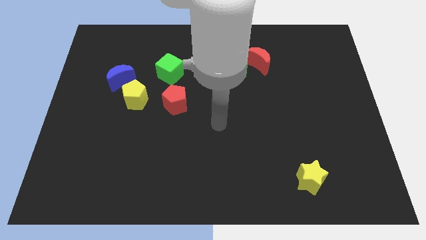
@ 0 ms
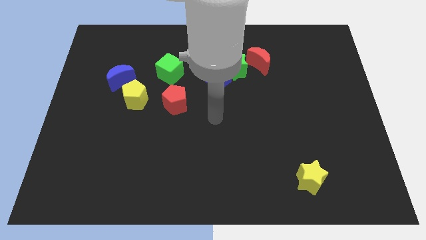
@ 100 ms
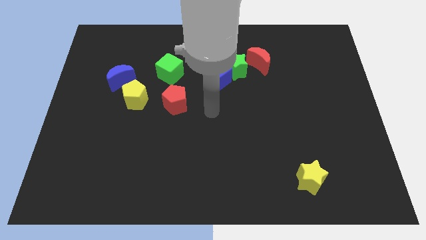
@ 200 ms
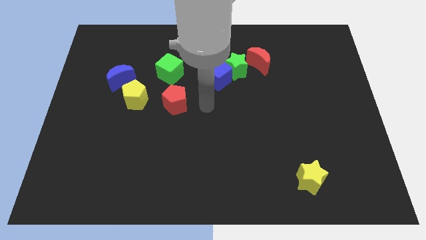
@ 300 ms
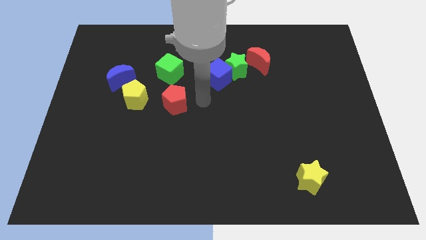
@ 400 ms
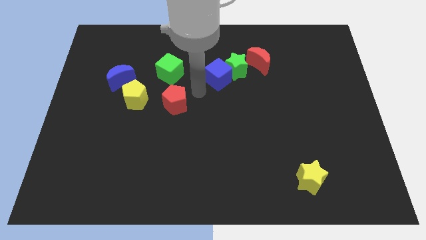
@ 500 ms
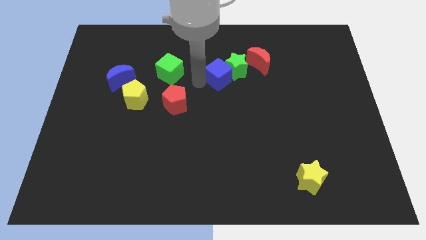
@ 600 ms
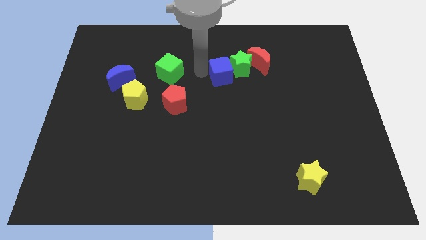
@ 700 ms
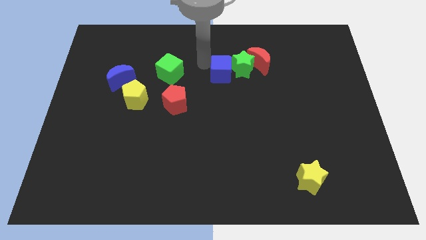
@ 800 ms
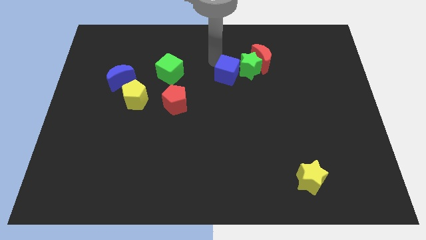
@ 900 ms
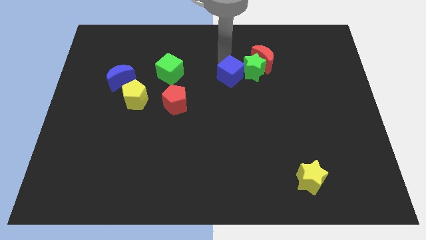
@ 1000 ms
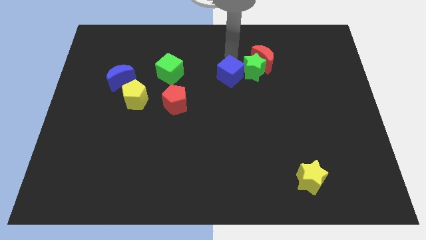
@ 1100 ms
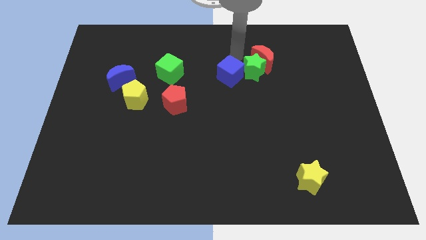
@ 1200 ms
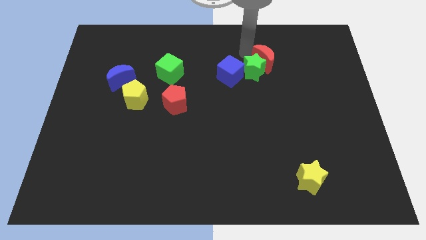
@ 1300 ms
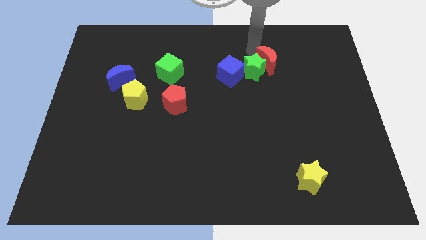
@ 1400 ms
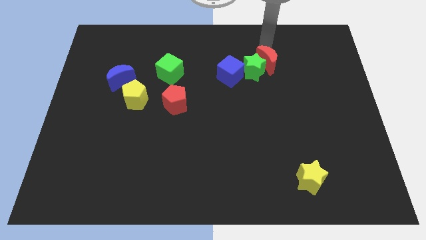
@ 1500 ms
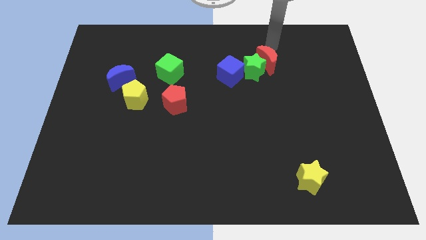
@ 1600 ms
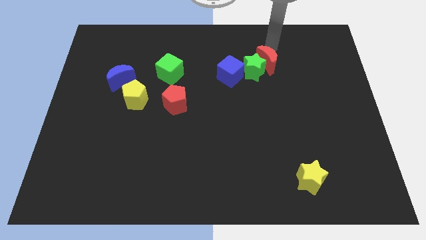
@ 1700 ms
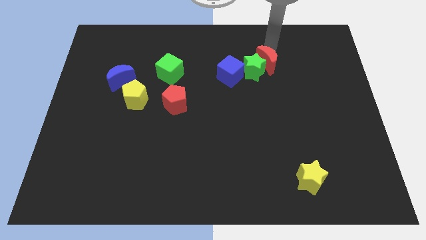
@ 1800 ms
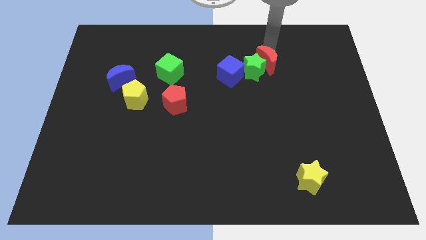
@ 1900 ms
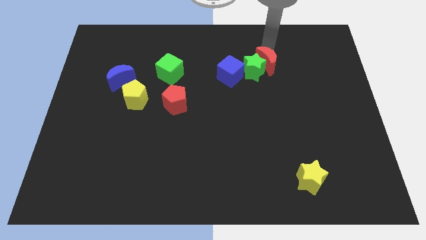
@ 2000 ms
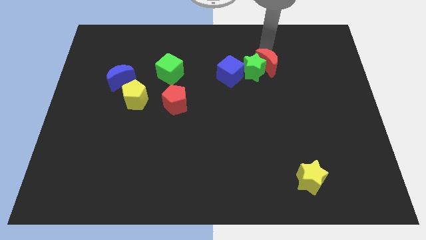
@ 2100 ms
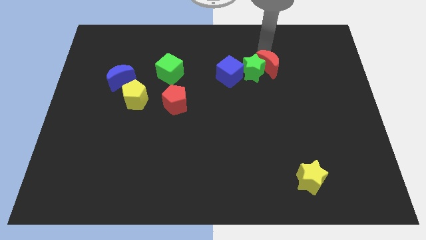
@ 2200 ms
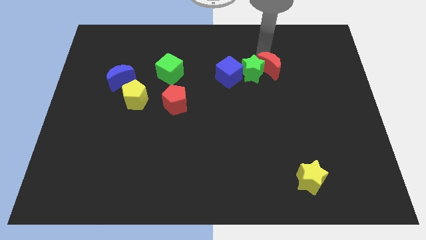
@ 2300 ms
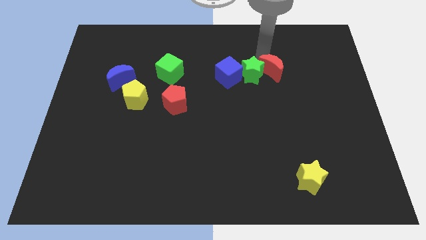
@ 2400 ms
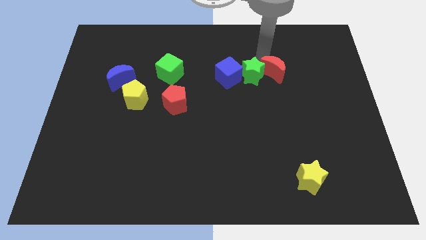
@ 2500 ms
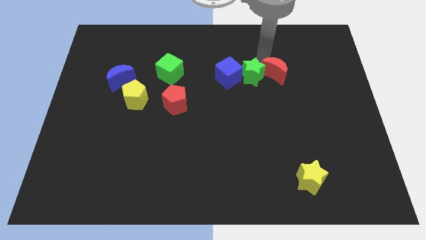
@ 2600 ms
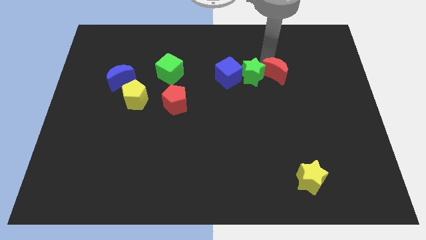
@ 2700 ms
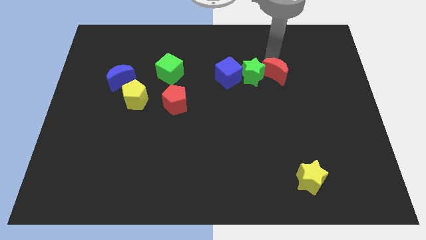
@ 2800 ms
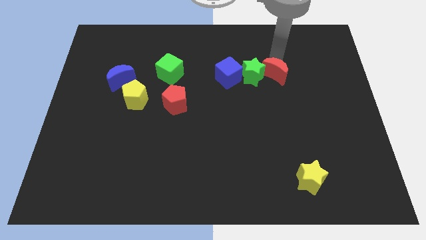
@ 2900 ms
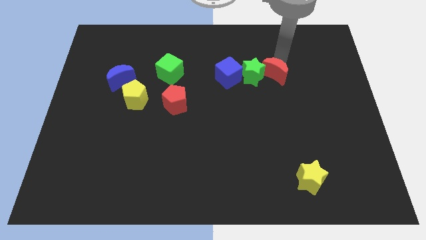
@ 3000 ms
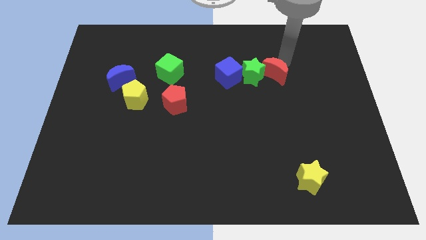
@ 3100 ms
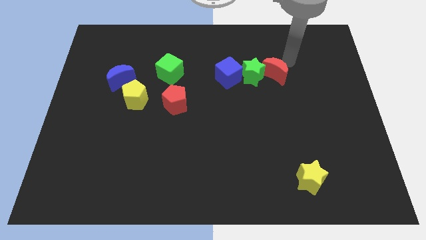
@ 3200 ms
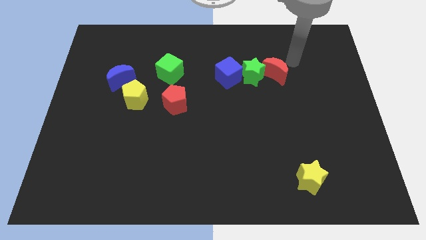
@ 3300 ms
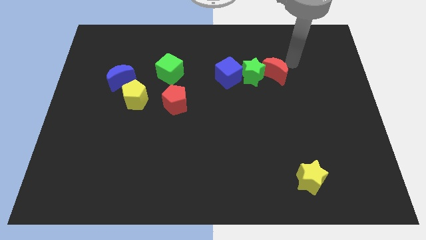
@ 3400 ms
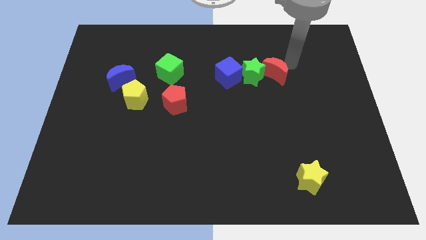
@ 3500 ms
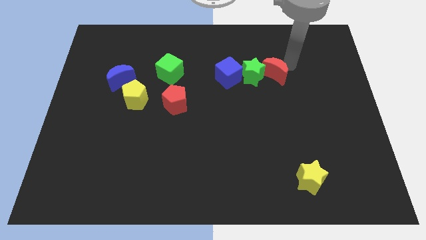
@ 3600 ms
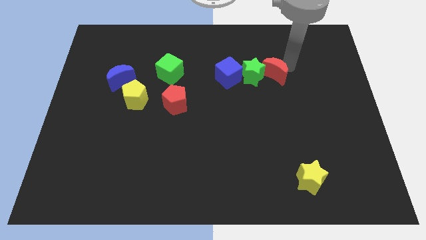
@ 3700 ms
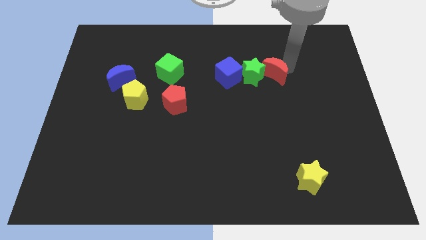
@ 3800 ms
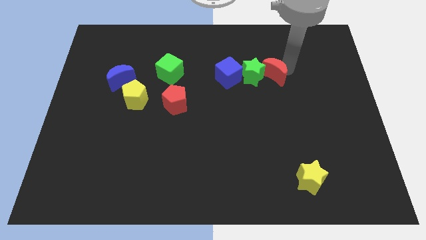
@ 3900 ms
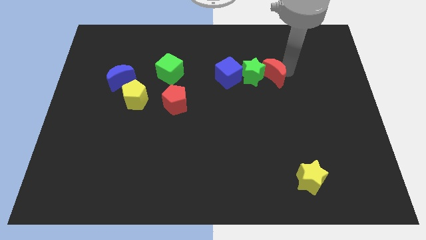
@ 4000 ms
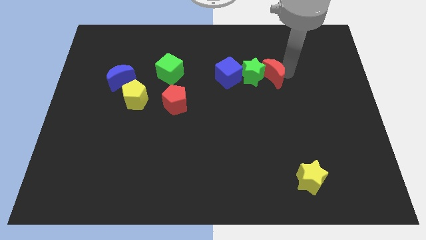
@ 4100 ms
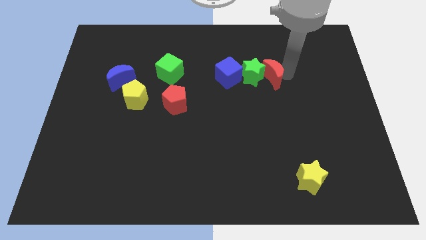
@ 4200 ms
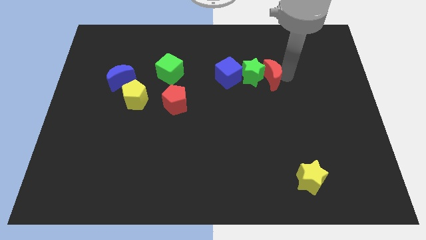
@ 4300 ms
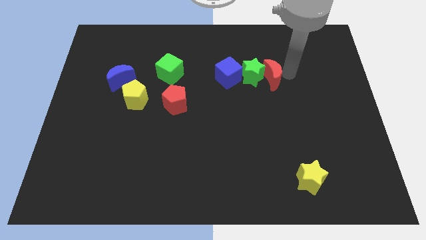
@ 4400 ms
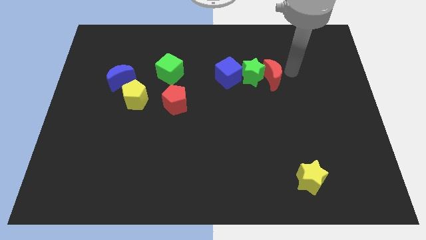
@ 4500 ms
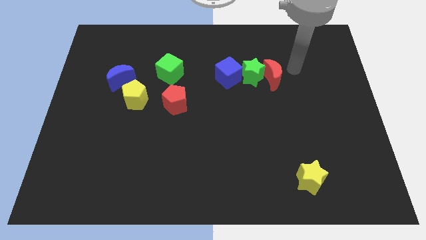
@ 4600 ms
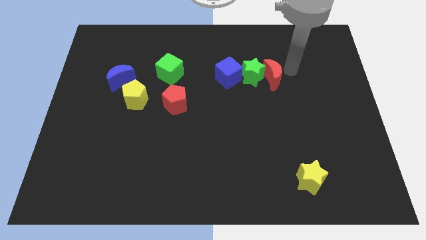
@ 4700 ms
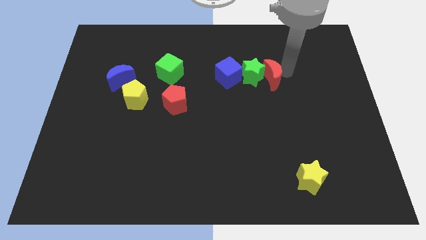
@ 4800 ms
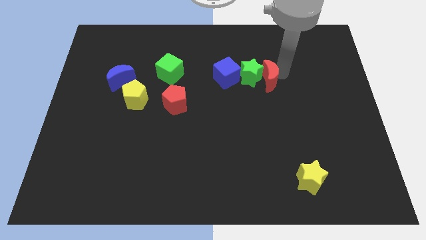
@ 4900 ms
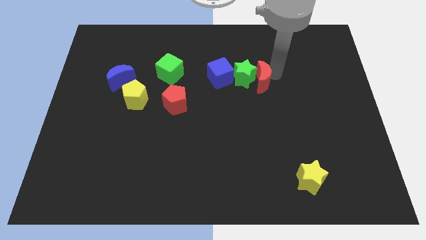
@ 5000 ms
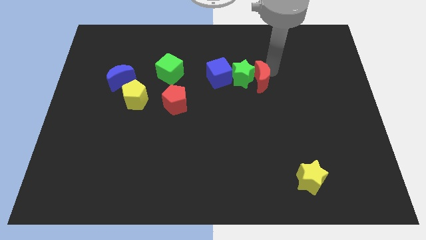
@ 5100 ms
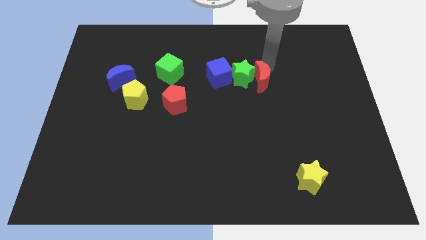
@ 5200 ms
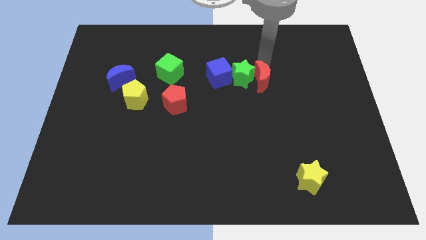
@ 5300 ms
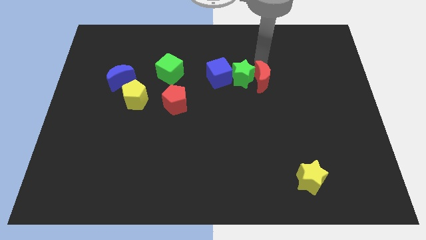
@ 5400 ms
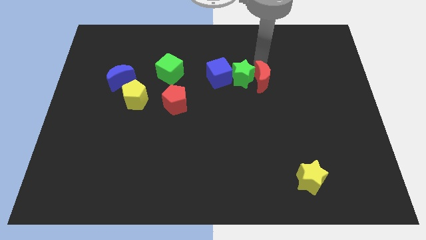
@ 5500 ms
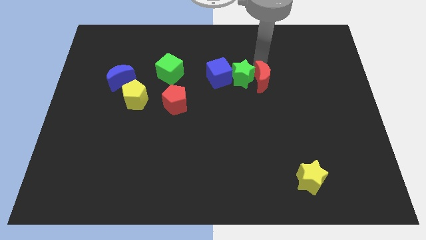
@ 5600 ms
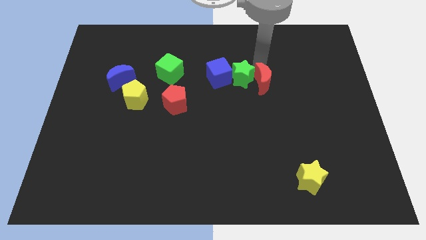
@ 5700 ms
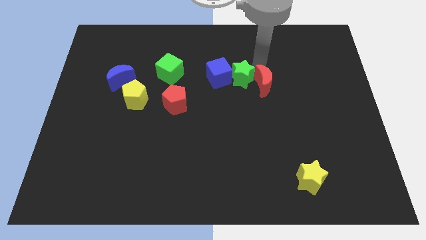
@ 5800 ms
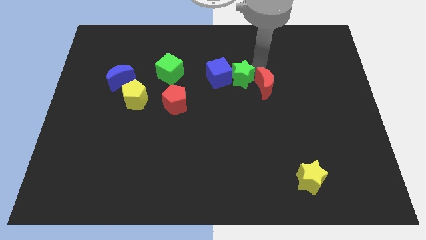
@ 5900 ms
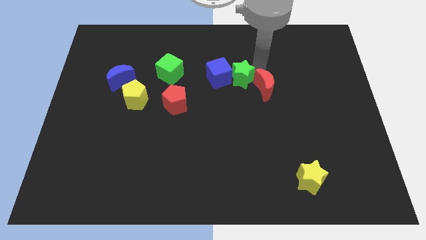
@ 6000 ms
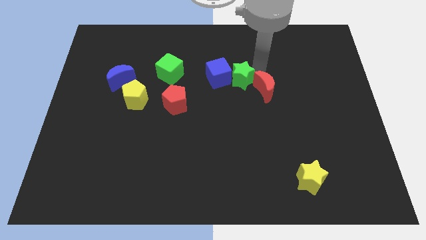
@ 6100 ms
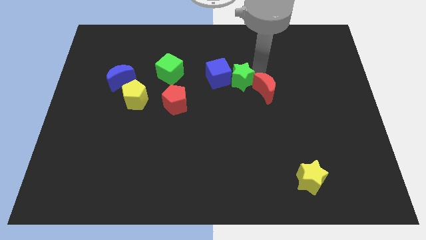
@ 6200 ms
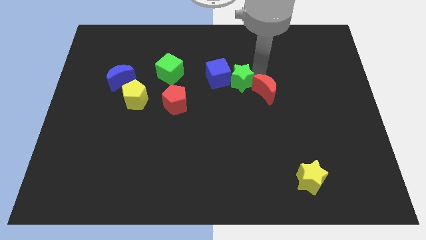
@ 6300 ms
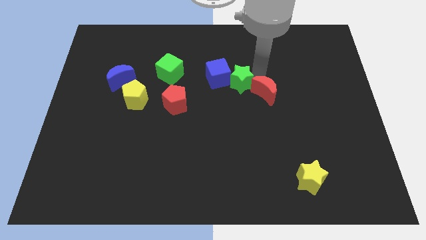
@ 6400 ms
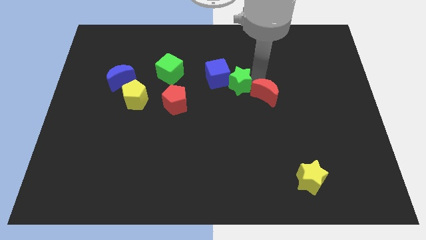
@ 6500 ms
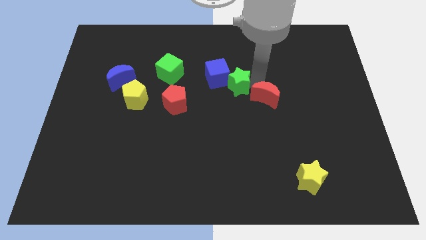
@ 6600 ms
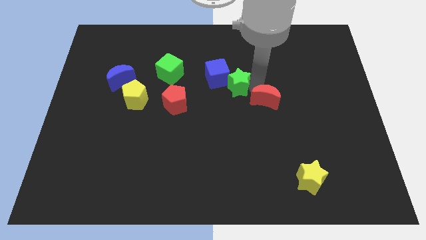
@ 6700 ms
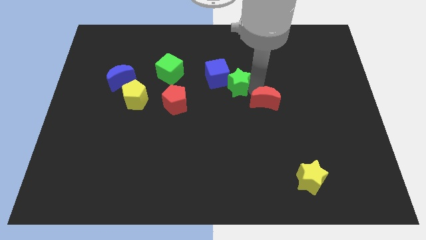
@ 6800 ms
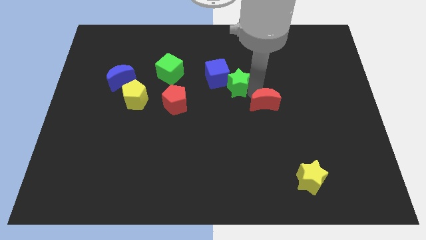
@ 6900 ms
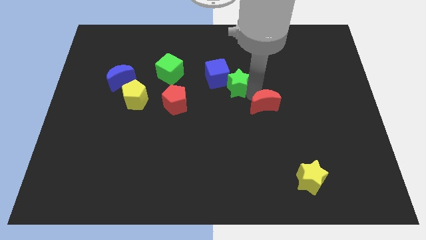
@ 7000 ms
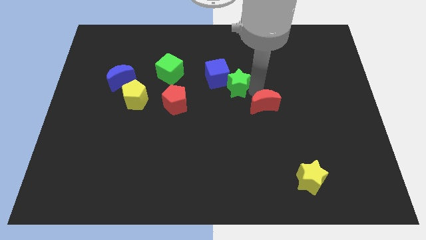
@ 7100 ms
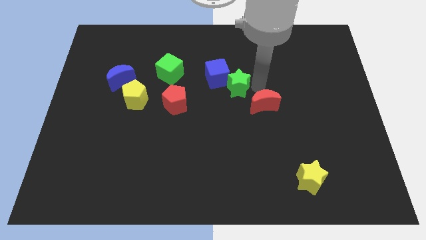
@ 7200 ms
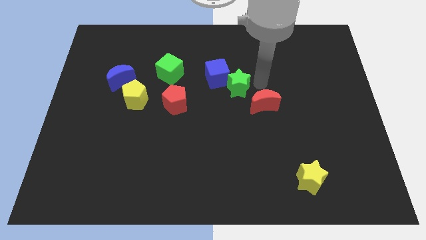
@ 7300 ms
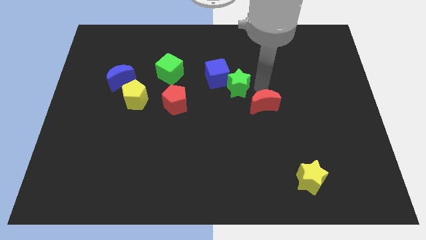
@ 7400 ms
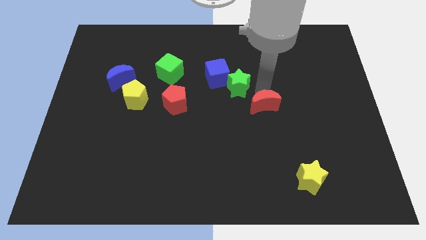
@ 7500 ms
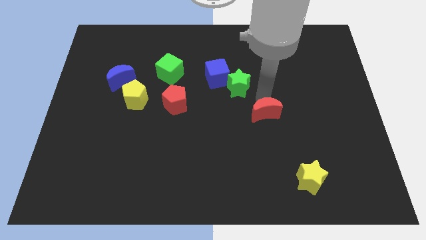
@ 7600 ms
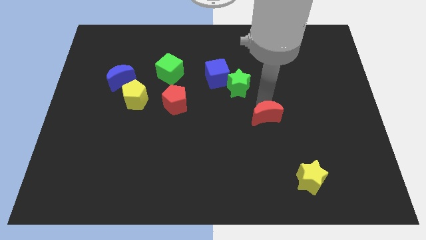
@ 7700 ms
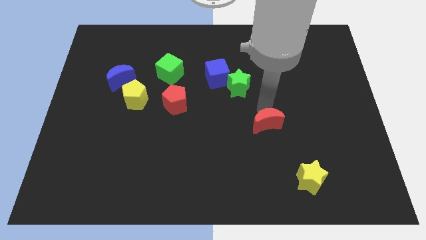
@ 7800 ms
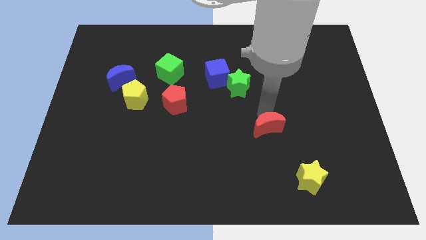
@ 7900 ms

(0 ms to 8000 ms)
move the red moon downwards

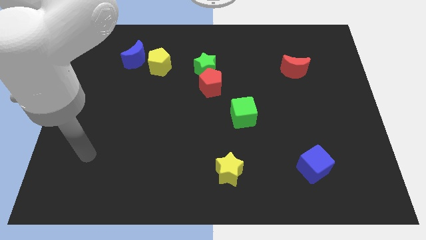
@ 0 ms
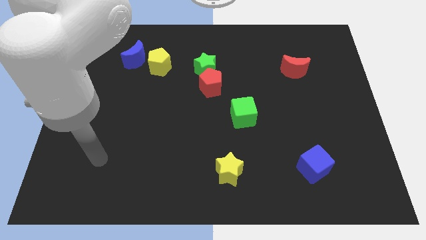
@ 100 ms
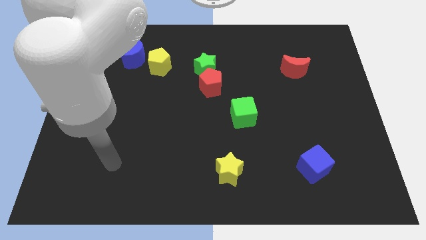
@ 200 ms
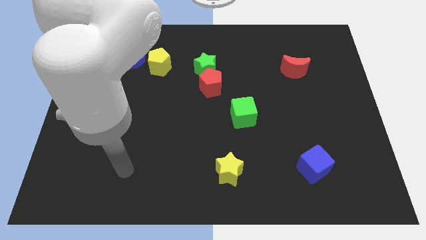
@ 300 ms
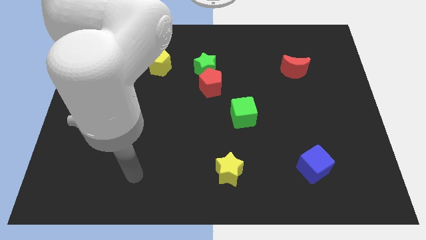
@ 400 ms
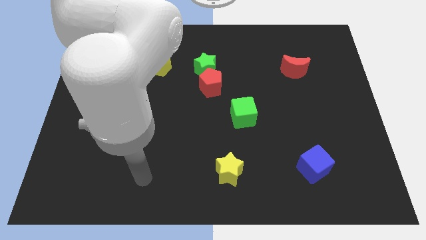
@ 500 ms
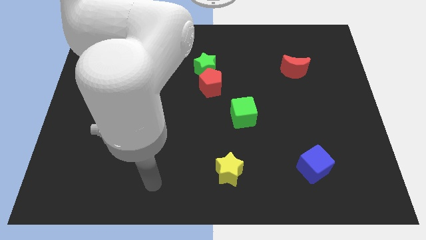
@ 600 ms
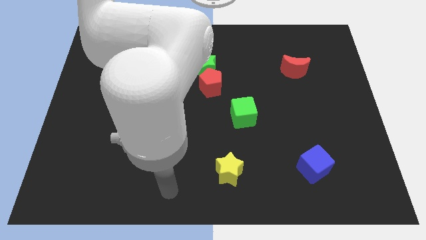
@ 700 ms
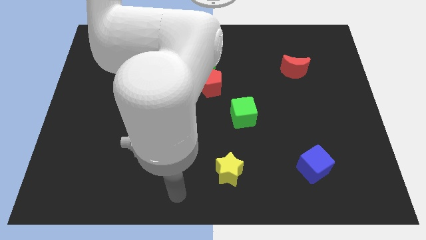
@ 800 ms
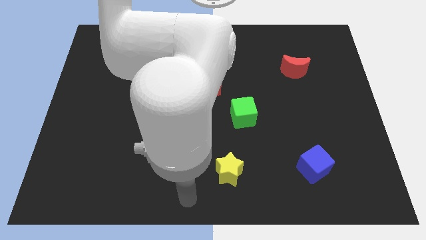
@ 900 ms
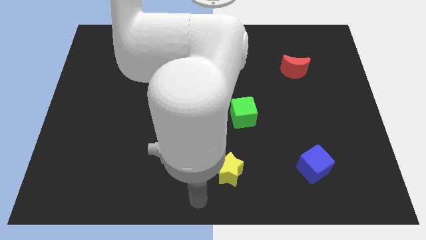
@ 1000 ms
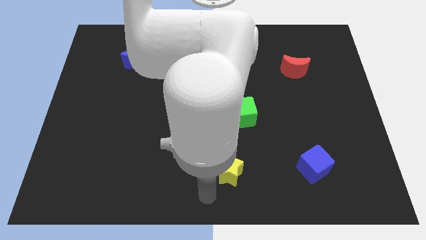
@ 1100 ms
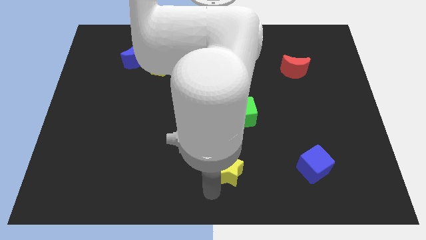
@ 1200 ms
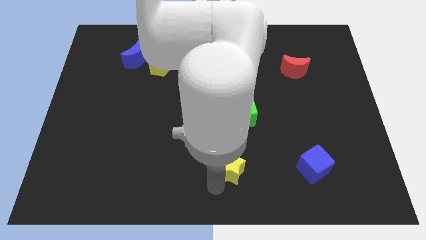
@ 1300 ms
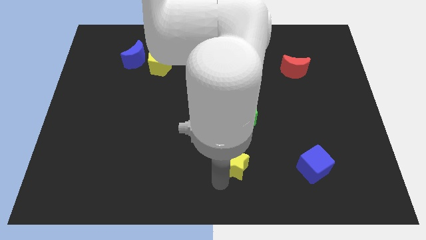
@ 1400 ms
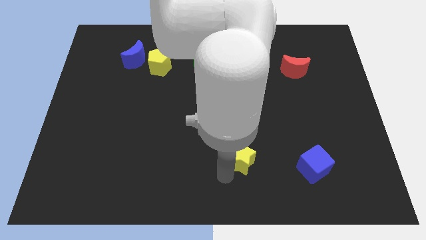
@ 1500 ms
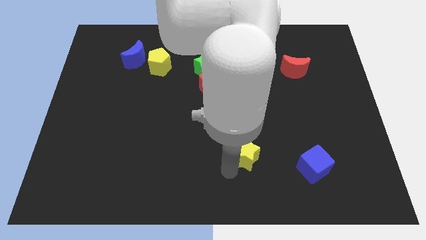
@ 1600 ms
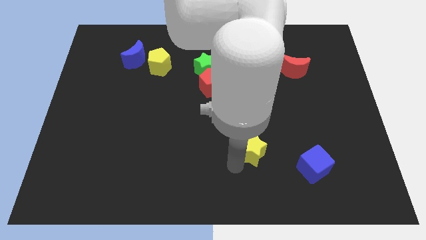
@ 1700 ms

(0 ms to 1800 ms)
move the yellow star slightly diagonally upwards and right
